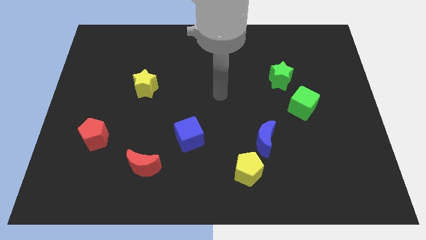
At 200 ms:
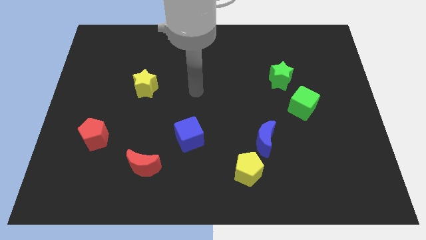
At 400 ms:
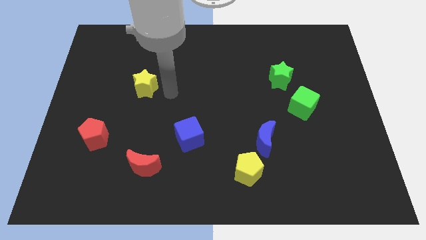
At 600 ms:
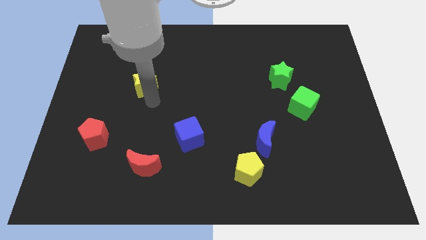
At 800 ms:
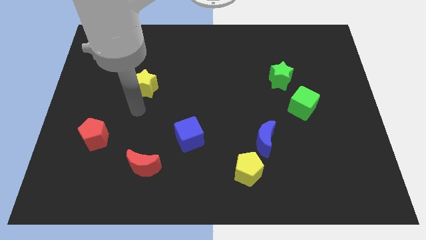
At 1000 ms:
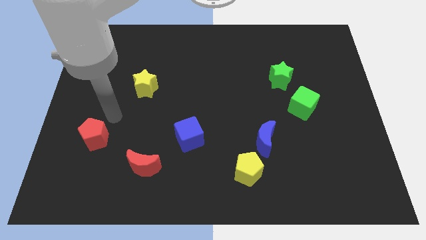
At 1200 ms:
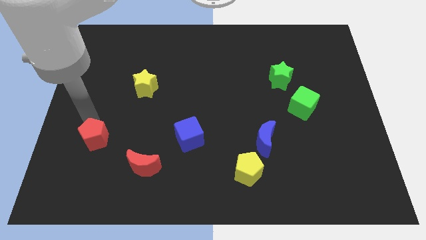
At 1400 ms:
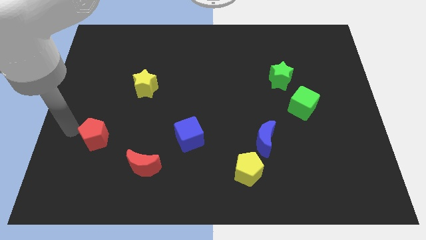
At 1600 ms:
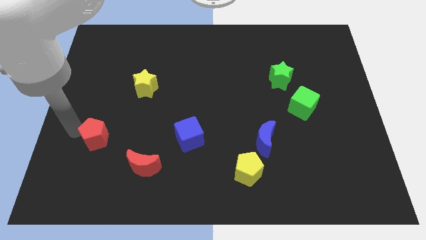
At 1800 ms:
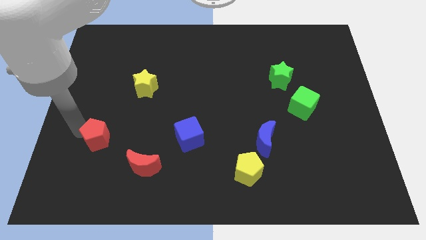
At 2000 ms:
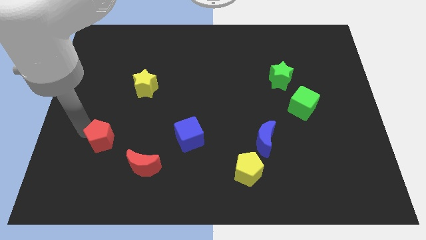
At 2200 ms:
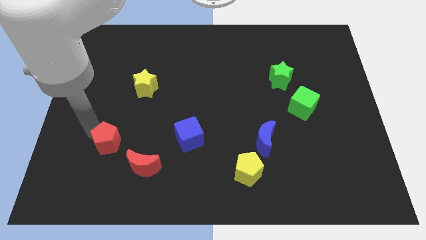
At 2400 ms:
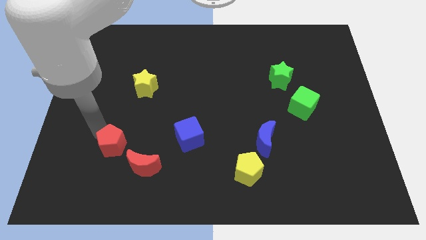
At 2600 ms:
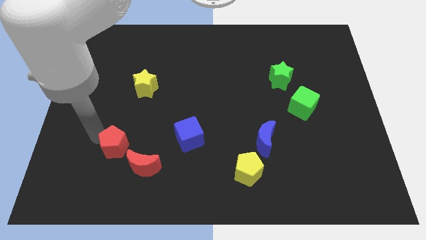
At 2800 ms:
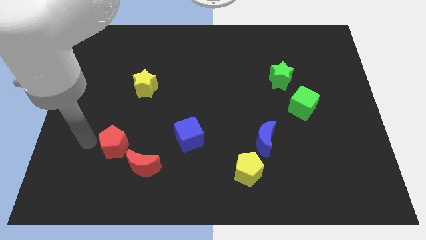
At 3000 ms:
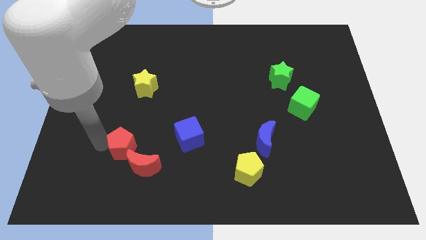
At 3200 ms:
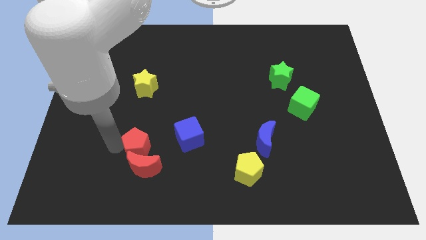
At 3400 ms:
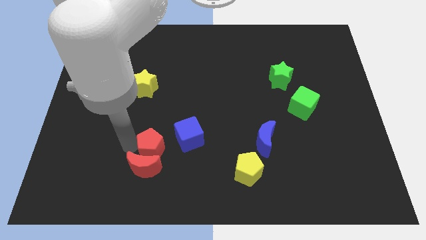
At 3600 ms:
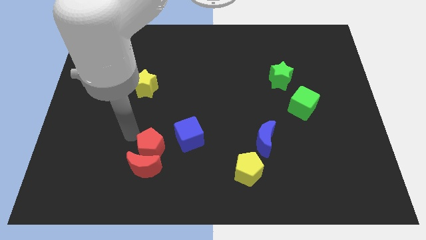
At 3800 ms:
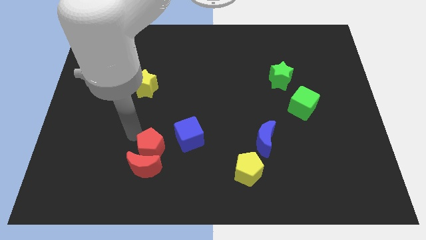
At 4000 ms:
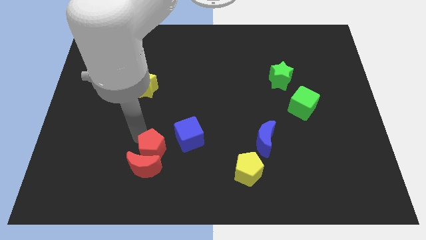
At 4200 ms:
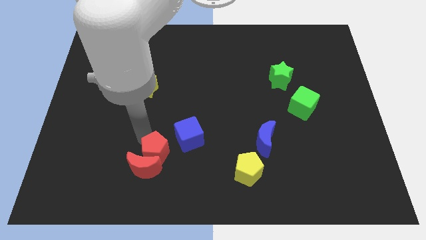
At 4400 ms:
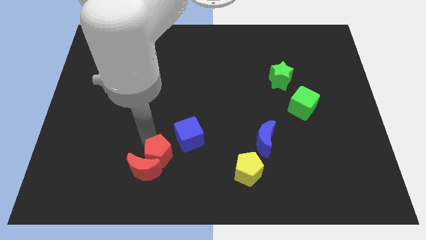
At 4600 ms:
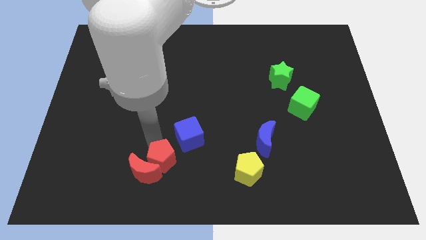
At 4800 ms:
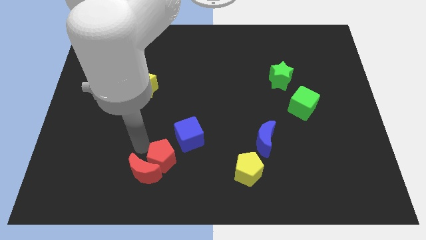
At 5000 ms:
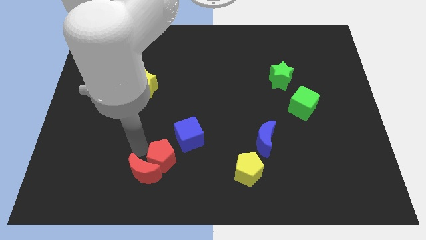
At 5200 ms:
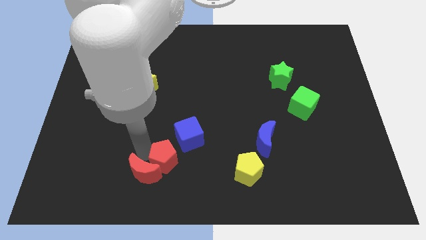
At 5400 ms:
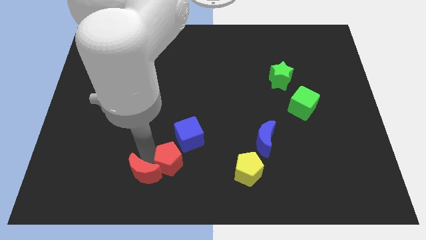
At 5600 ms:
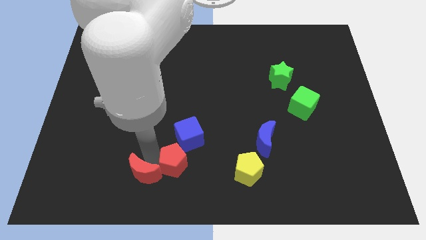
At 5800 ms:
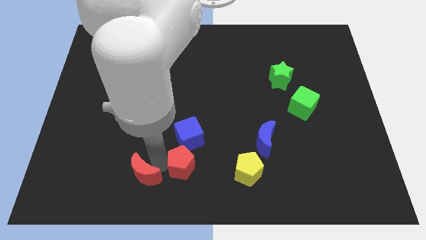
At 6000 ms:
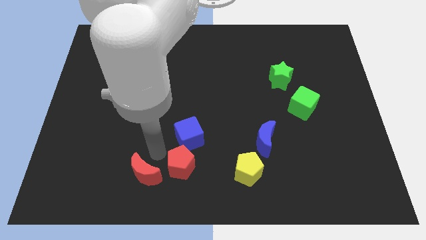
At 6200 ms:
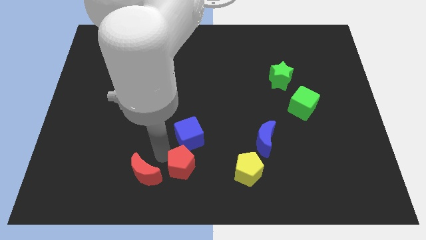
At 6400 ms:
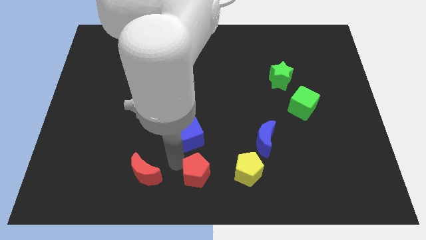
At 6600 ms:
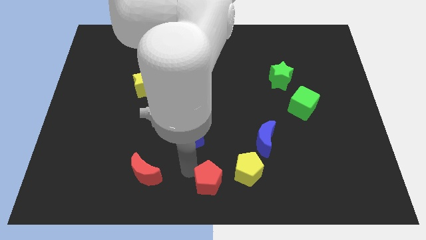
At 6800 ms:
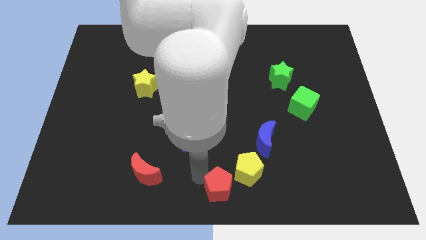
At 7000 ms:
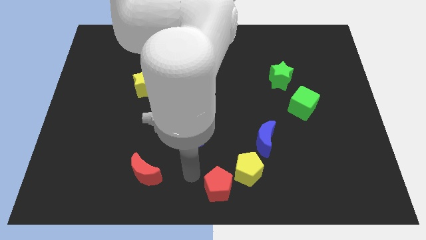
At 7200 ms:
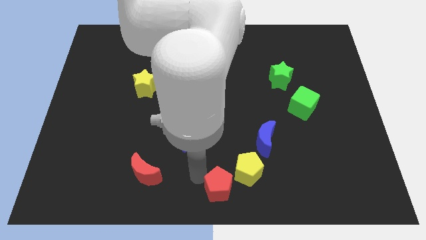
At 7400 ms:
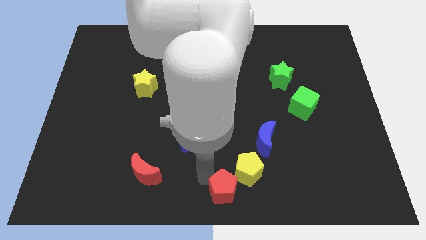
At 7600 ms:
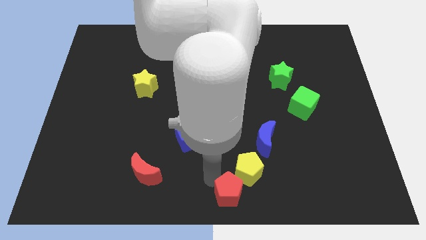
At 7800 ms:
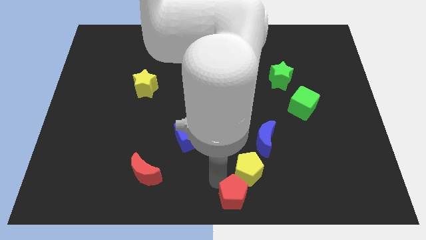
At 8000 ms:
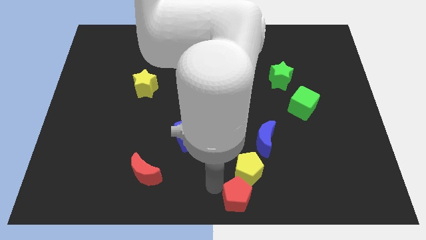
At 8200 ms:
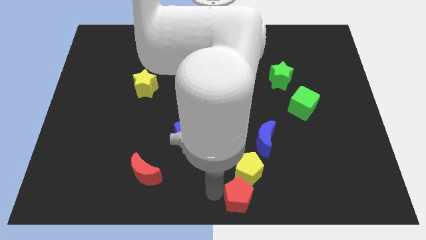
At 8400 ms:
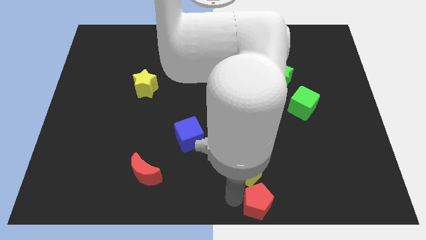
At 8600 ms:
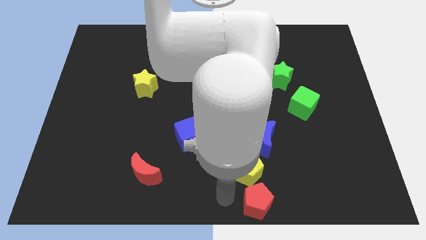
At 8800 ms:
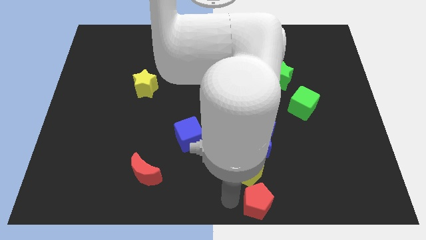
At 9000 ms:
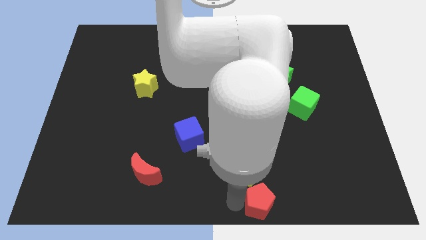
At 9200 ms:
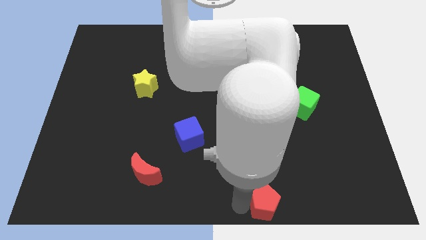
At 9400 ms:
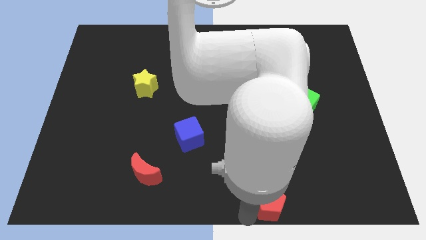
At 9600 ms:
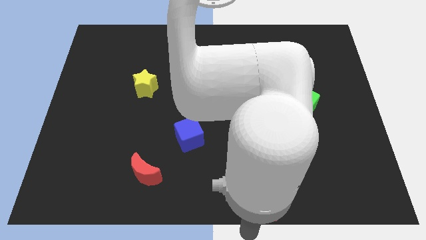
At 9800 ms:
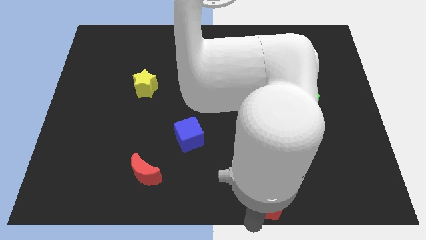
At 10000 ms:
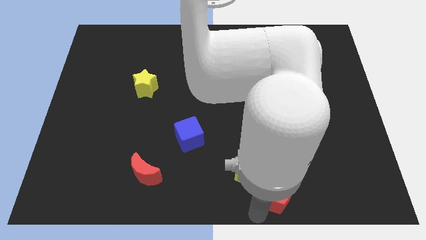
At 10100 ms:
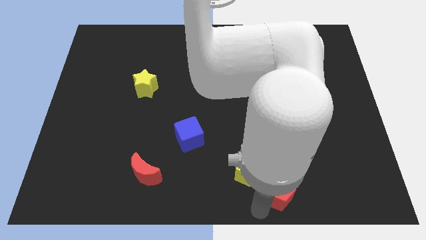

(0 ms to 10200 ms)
slide the red pentagon just right of the yellow pentagon

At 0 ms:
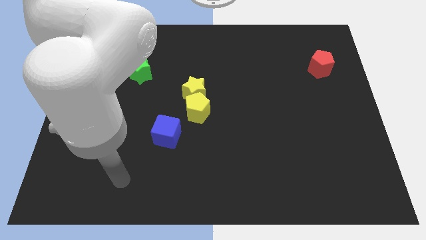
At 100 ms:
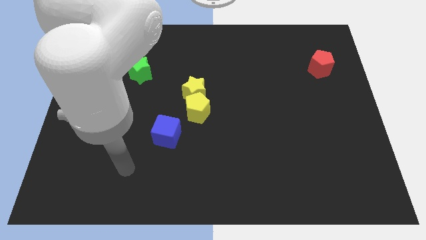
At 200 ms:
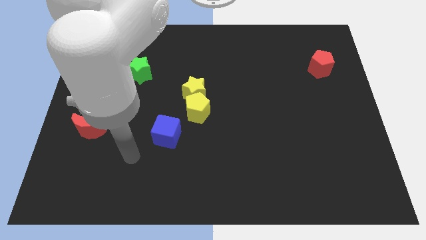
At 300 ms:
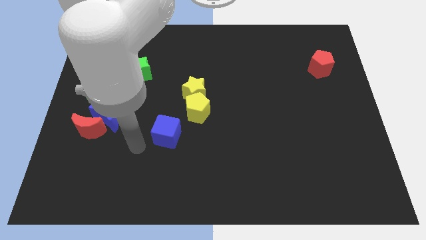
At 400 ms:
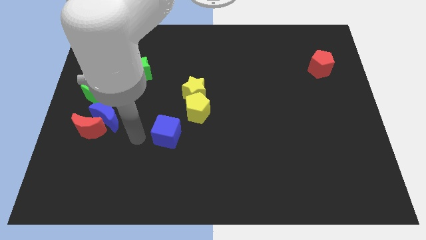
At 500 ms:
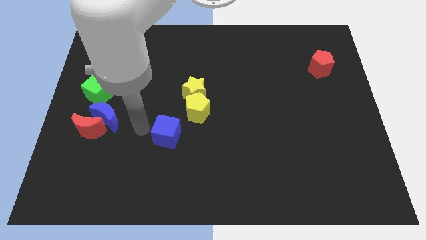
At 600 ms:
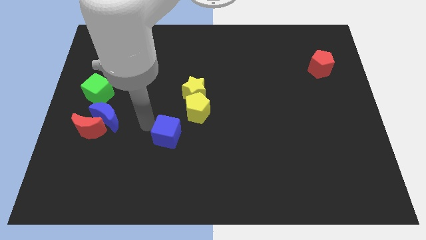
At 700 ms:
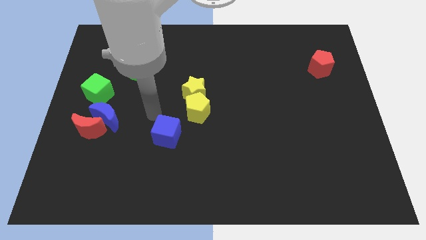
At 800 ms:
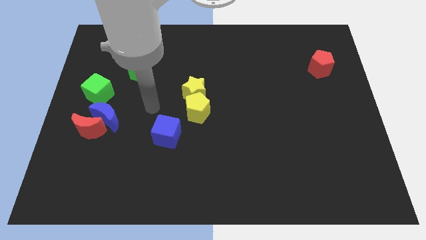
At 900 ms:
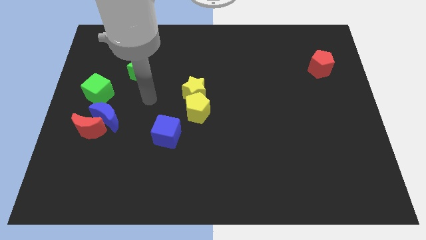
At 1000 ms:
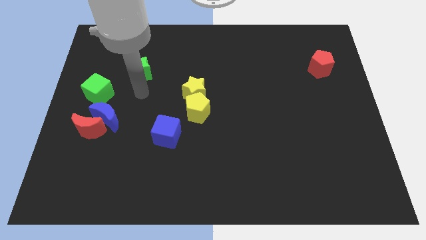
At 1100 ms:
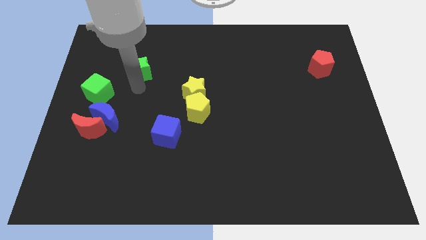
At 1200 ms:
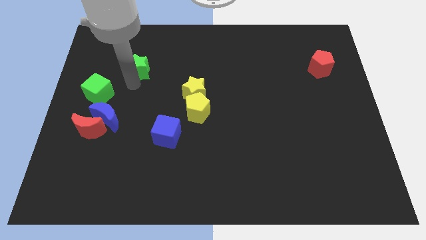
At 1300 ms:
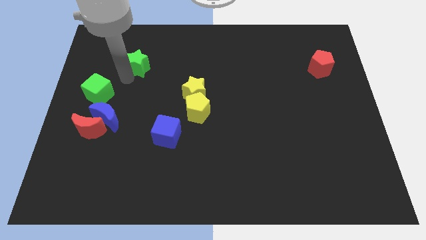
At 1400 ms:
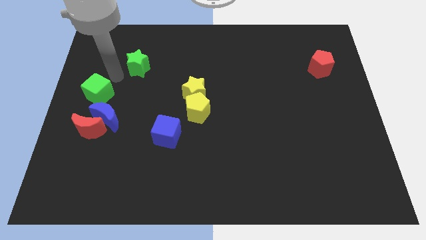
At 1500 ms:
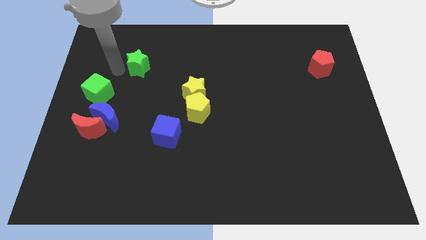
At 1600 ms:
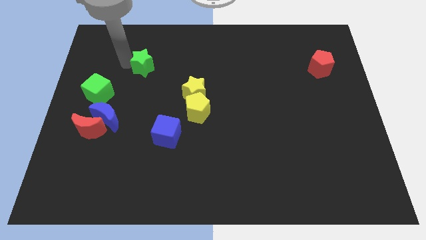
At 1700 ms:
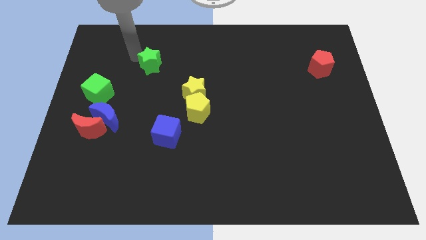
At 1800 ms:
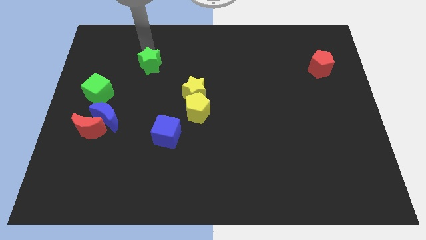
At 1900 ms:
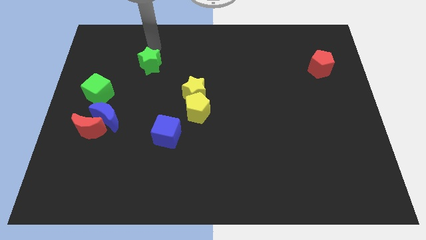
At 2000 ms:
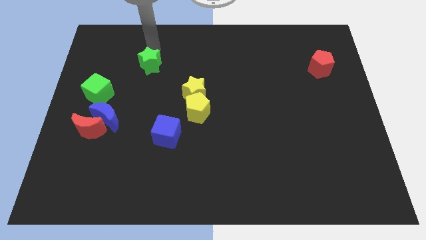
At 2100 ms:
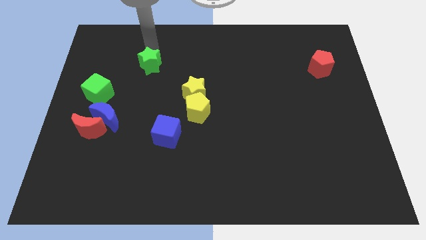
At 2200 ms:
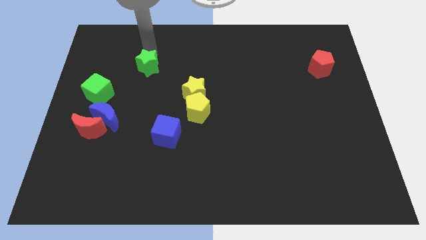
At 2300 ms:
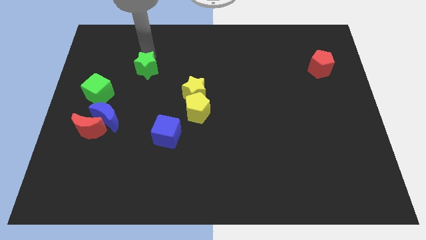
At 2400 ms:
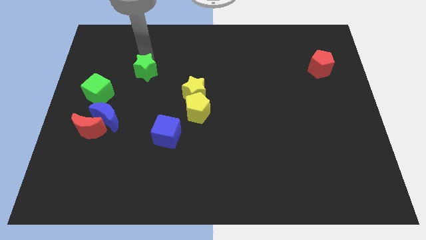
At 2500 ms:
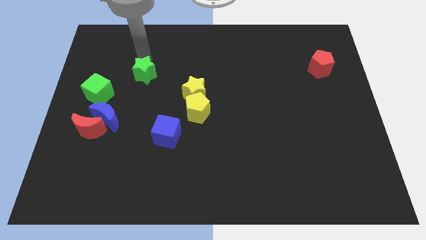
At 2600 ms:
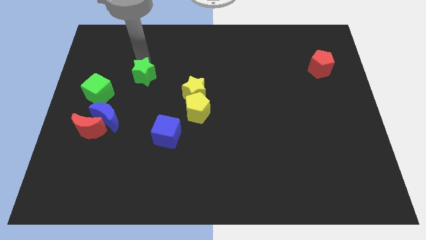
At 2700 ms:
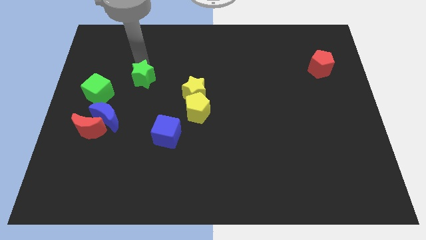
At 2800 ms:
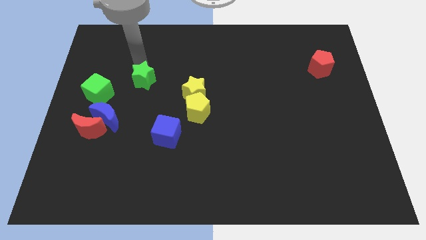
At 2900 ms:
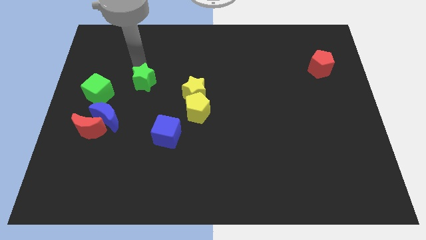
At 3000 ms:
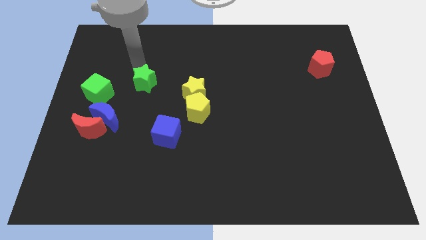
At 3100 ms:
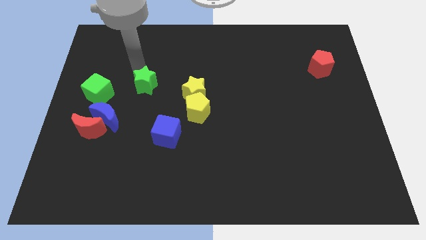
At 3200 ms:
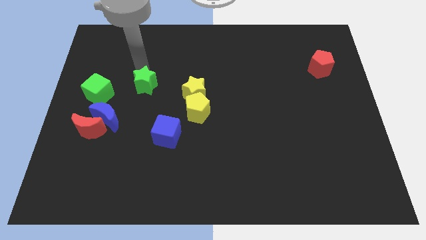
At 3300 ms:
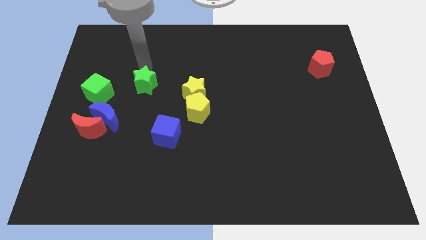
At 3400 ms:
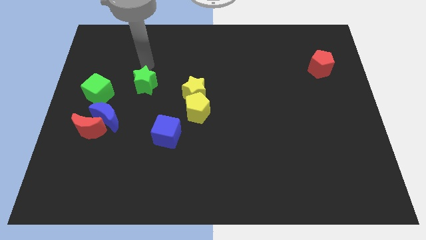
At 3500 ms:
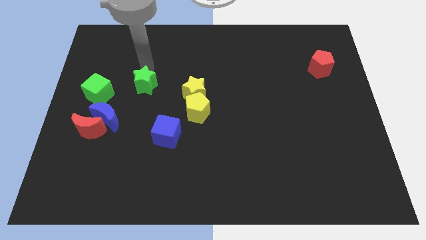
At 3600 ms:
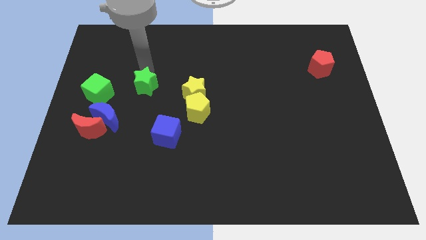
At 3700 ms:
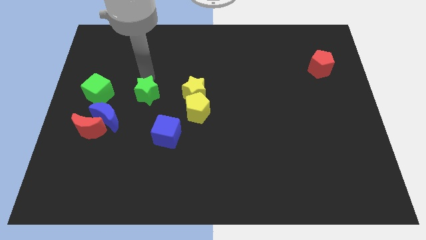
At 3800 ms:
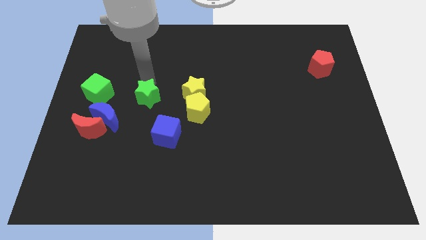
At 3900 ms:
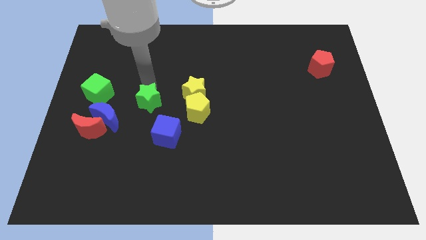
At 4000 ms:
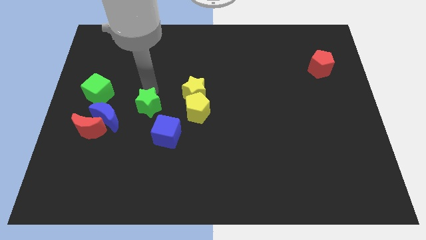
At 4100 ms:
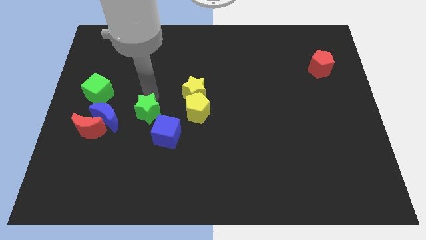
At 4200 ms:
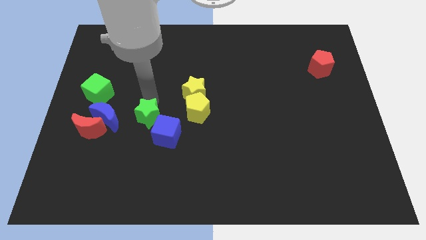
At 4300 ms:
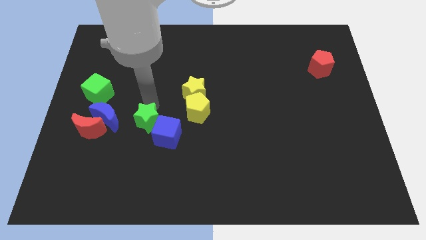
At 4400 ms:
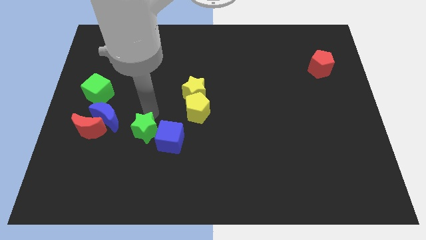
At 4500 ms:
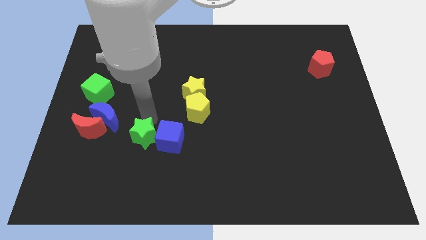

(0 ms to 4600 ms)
put the green star to the bottom left side of the blue cube
